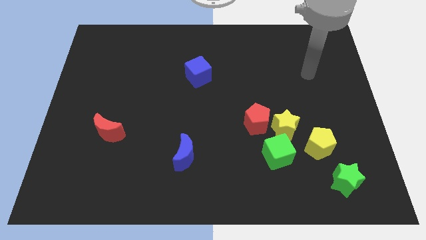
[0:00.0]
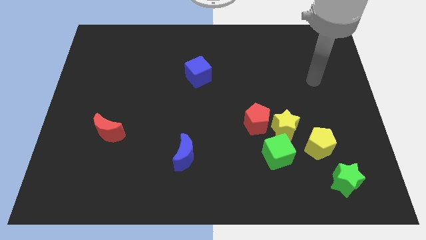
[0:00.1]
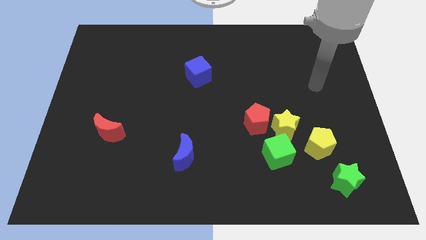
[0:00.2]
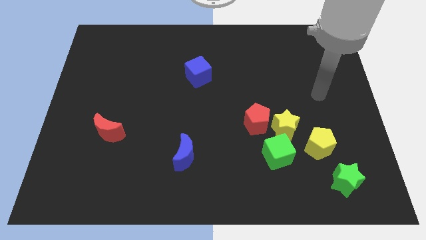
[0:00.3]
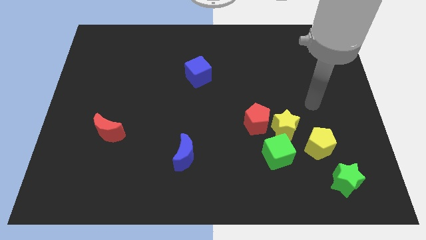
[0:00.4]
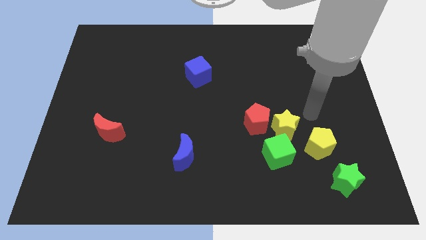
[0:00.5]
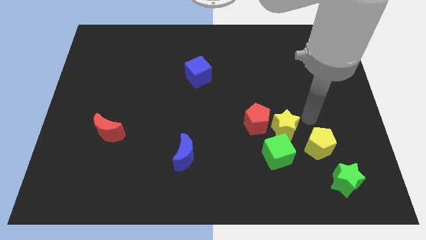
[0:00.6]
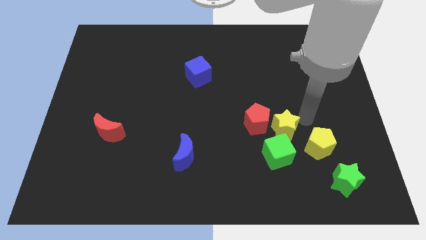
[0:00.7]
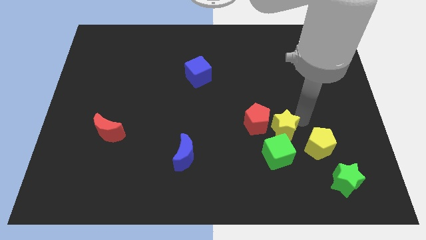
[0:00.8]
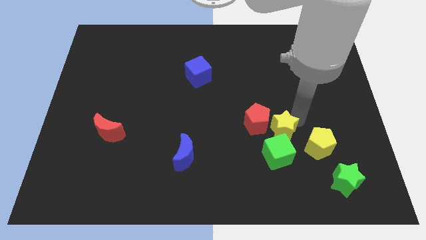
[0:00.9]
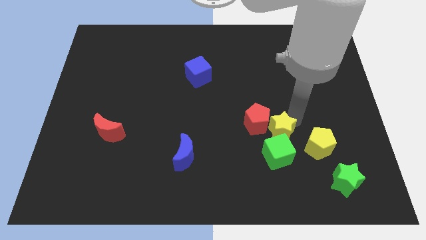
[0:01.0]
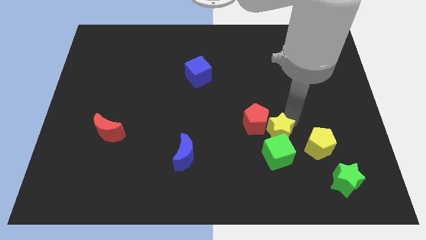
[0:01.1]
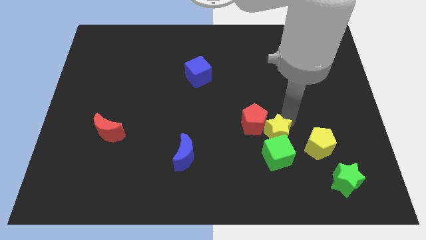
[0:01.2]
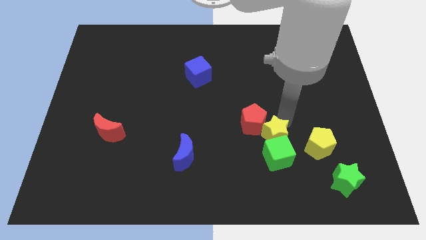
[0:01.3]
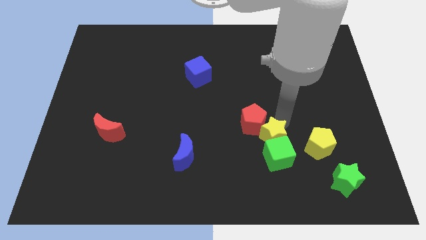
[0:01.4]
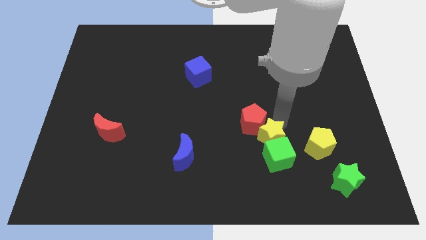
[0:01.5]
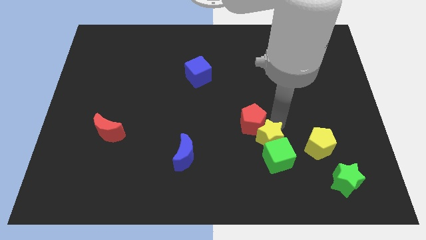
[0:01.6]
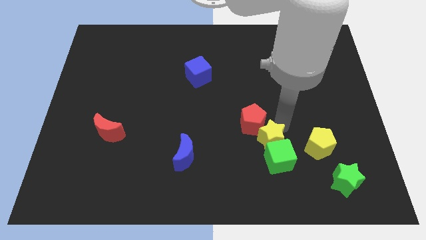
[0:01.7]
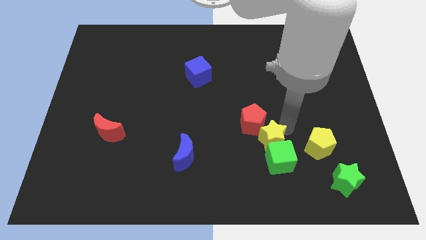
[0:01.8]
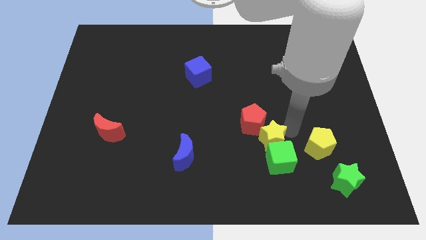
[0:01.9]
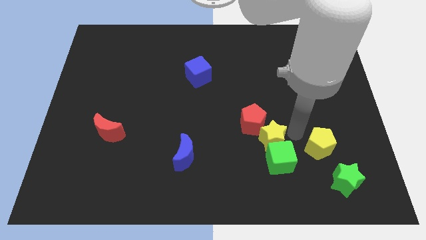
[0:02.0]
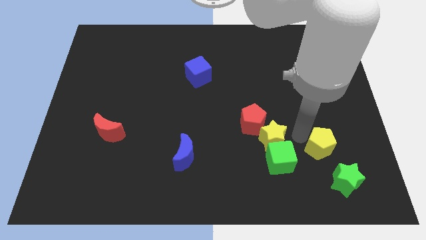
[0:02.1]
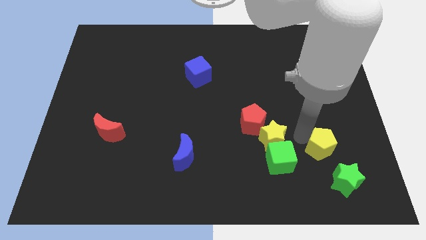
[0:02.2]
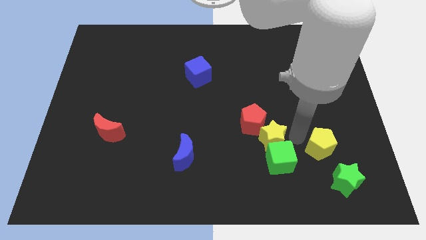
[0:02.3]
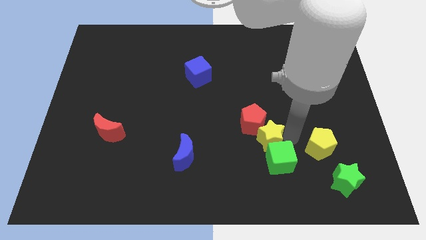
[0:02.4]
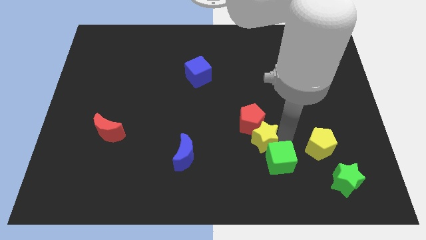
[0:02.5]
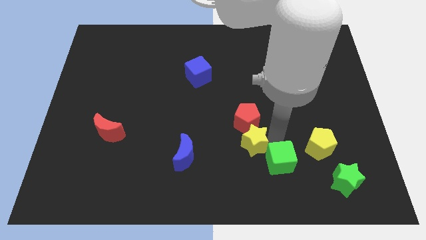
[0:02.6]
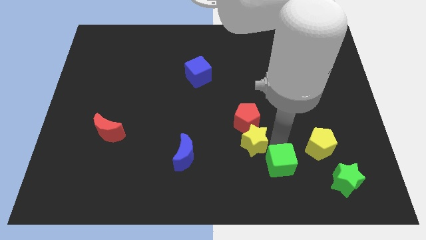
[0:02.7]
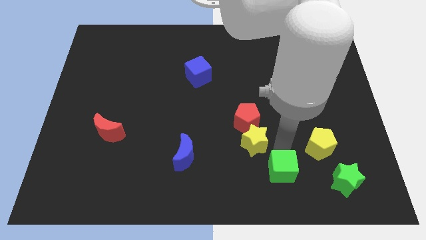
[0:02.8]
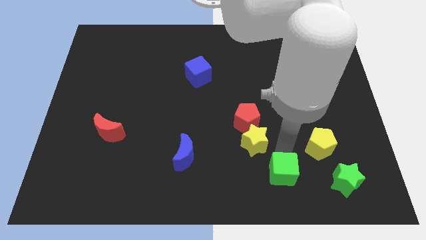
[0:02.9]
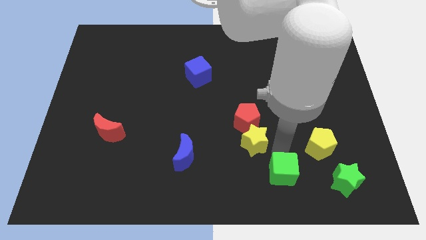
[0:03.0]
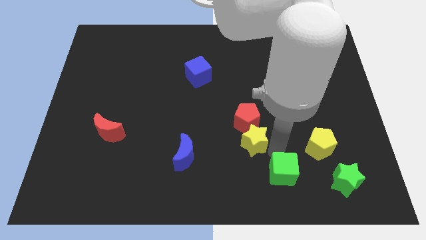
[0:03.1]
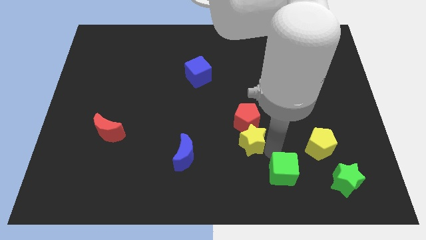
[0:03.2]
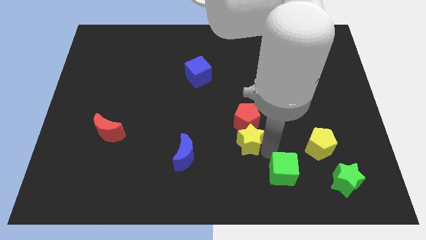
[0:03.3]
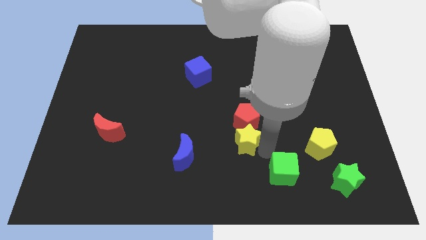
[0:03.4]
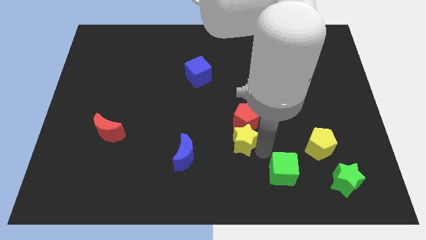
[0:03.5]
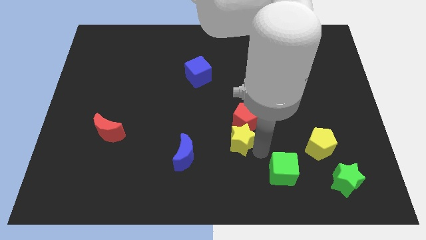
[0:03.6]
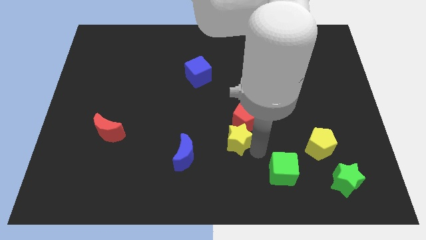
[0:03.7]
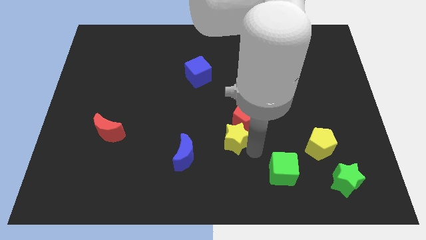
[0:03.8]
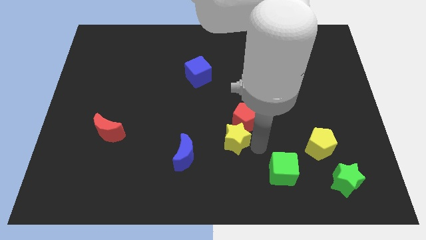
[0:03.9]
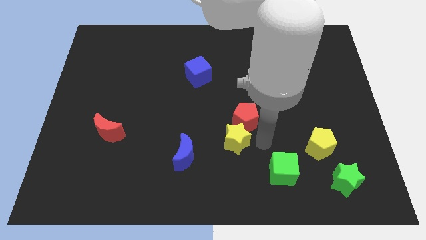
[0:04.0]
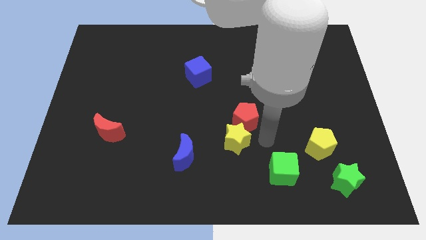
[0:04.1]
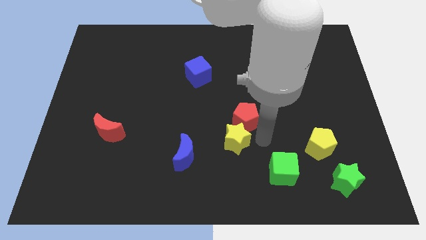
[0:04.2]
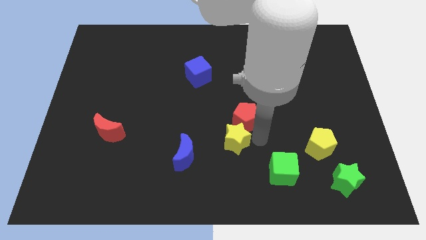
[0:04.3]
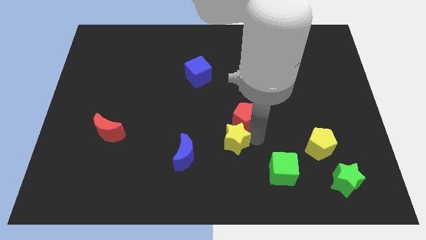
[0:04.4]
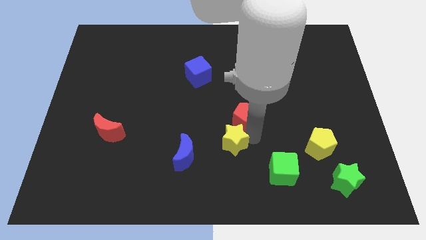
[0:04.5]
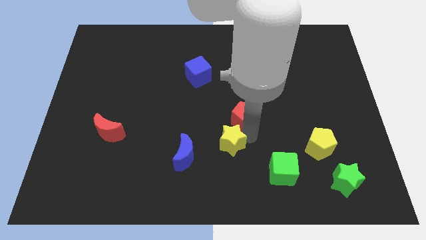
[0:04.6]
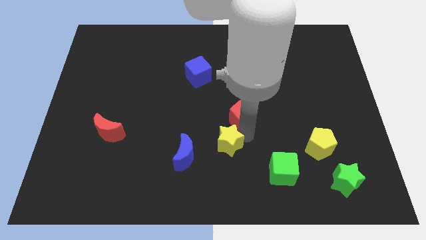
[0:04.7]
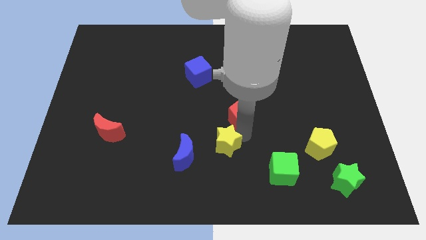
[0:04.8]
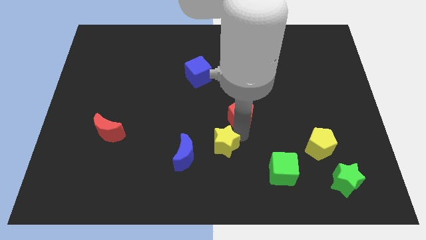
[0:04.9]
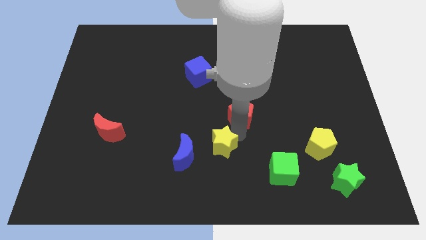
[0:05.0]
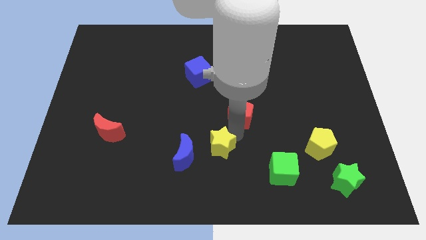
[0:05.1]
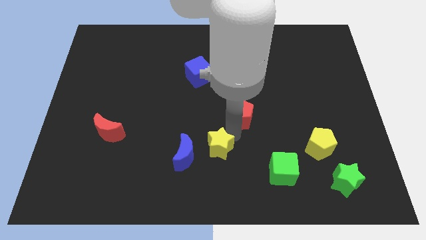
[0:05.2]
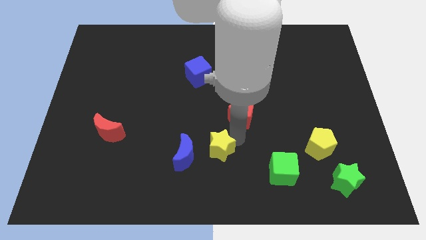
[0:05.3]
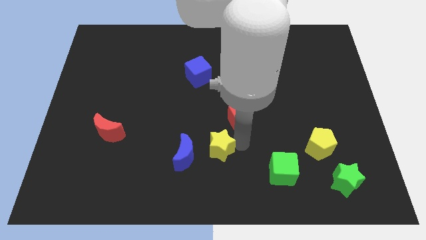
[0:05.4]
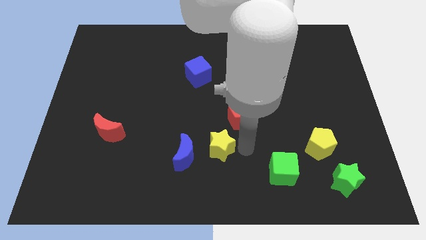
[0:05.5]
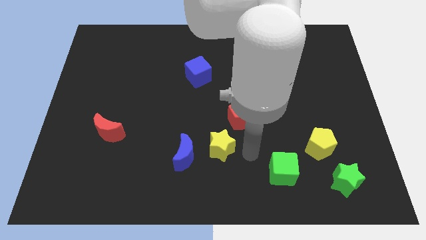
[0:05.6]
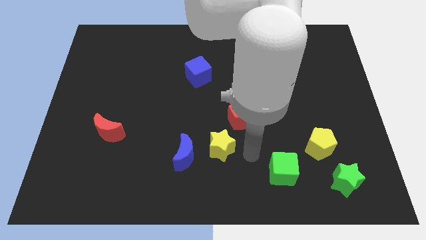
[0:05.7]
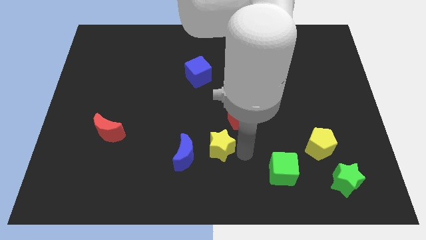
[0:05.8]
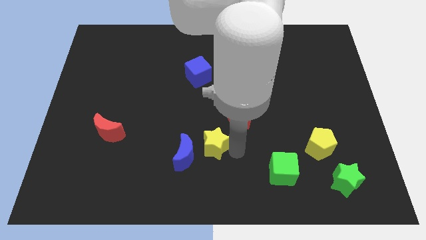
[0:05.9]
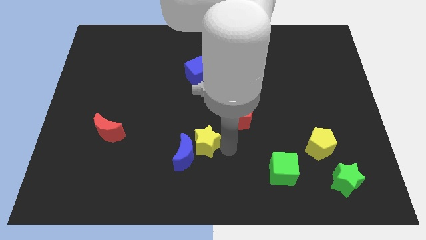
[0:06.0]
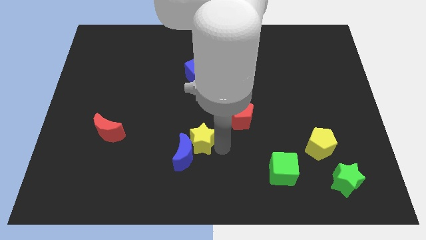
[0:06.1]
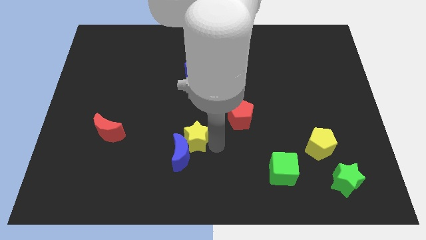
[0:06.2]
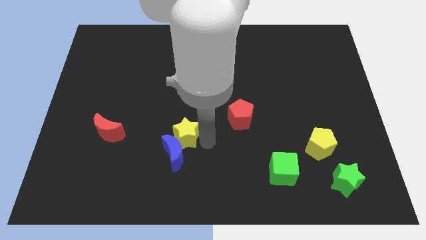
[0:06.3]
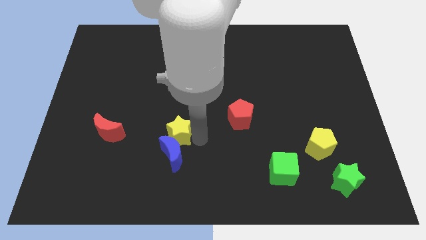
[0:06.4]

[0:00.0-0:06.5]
move the yellow star diagonally up and to the left of the blue moon
